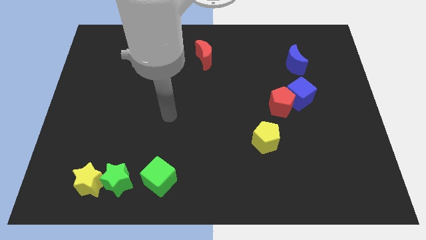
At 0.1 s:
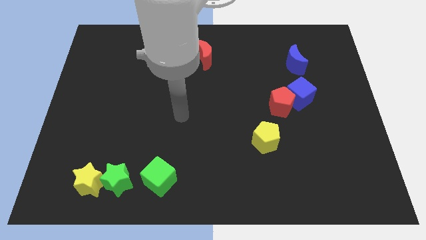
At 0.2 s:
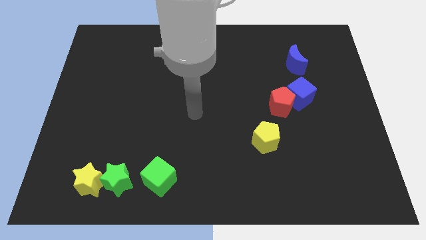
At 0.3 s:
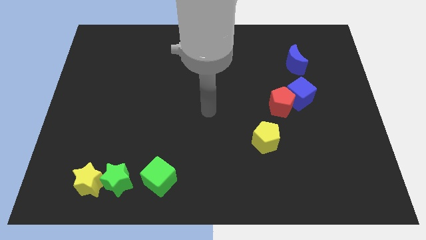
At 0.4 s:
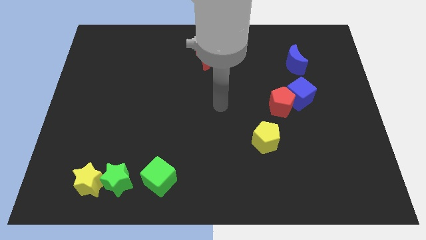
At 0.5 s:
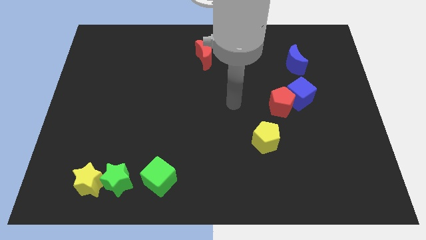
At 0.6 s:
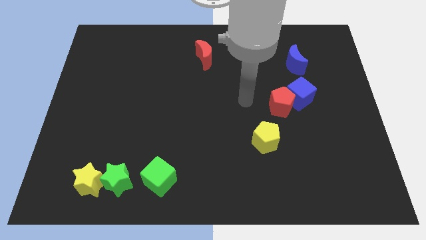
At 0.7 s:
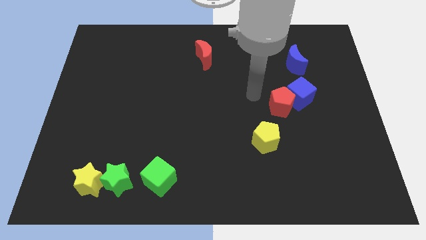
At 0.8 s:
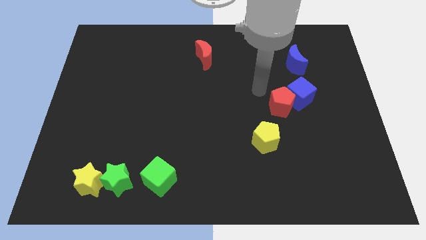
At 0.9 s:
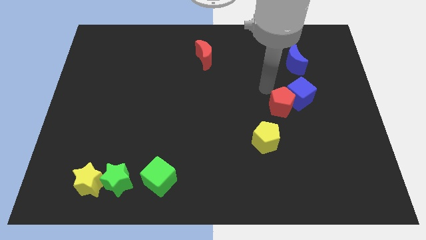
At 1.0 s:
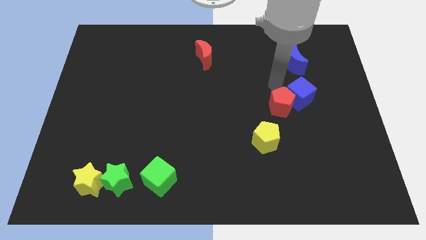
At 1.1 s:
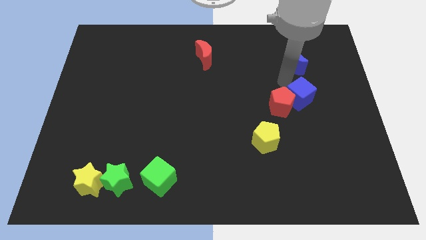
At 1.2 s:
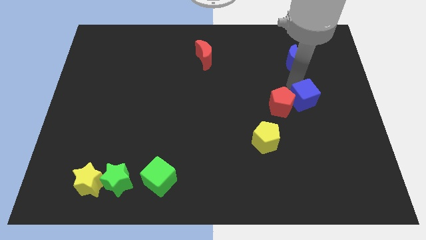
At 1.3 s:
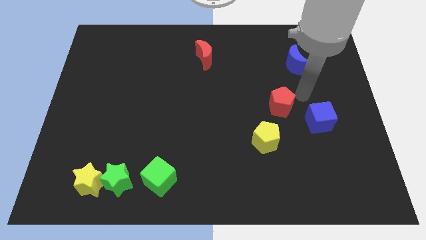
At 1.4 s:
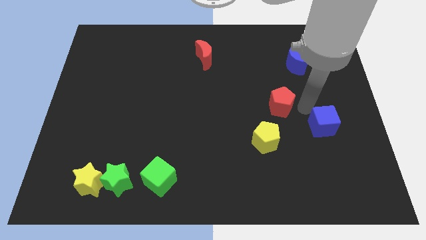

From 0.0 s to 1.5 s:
move the red pentagon away from the blue cube

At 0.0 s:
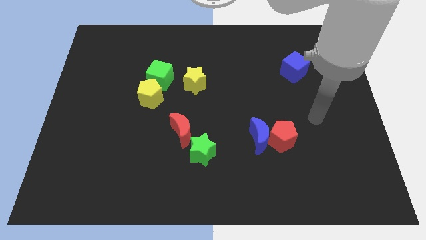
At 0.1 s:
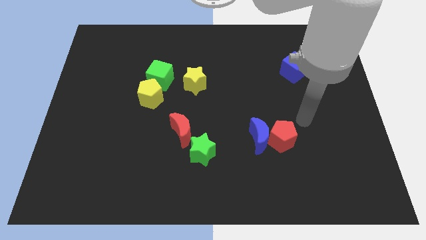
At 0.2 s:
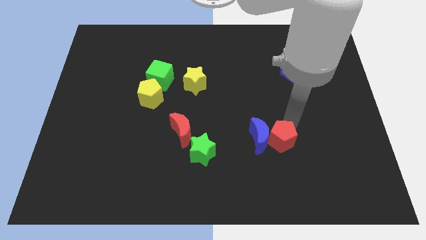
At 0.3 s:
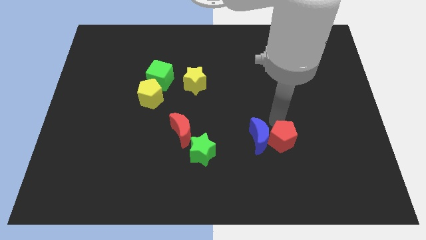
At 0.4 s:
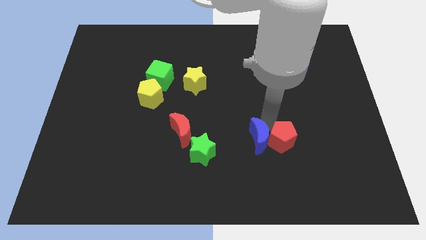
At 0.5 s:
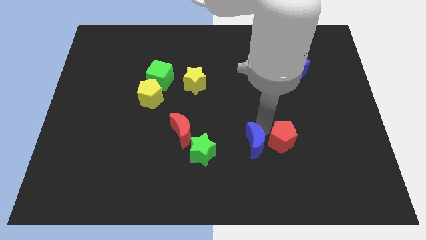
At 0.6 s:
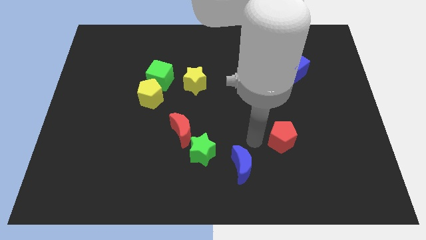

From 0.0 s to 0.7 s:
move the red pentagon away from the blue moon

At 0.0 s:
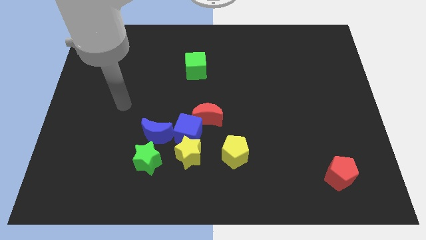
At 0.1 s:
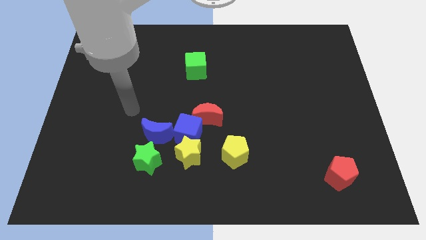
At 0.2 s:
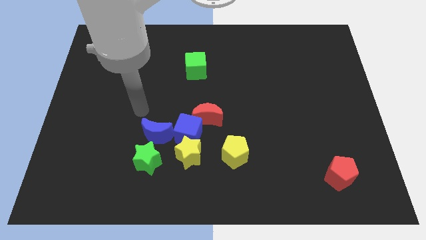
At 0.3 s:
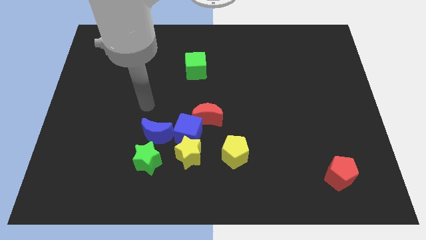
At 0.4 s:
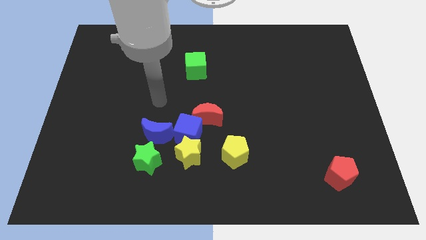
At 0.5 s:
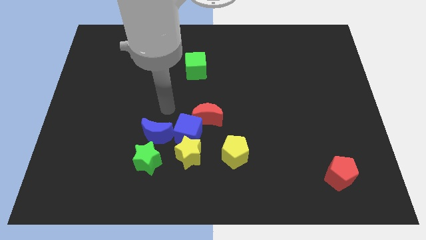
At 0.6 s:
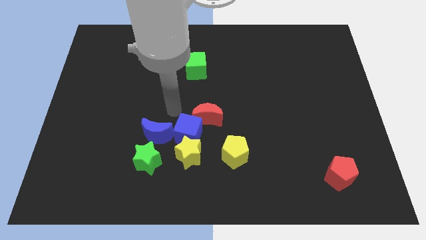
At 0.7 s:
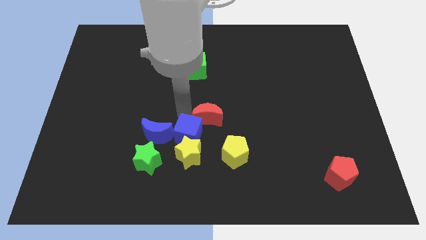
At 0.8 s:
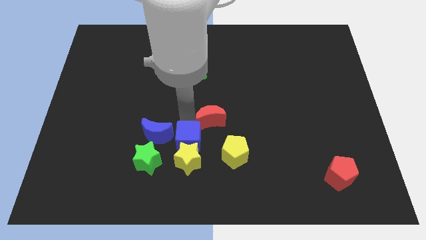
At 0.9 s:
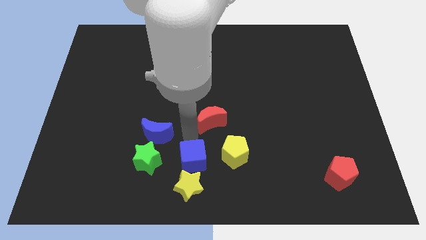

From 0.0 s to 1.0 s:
separate the red moon from the blue cube

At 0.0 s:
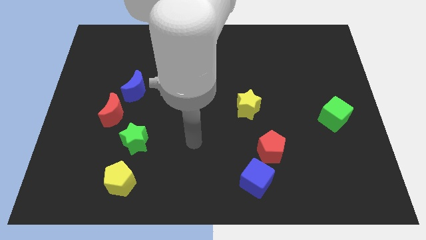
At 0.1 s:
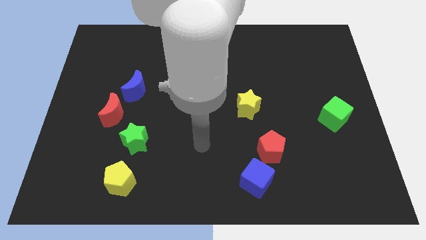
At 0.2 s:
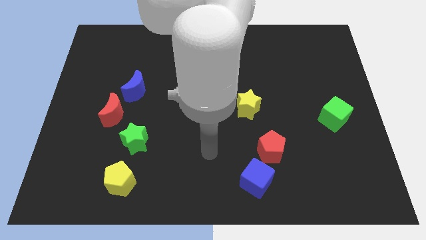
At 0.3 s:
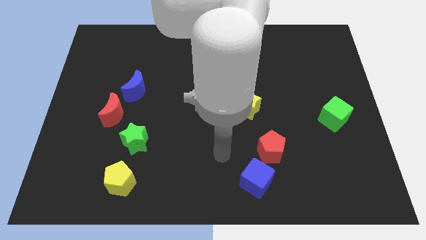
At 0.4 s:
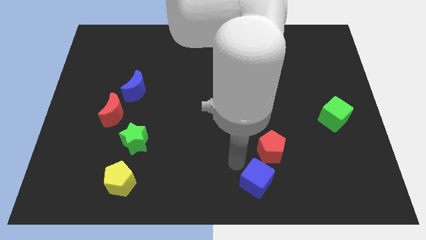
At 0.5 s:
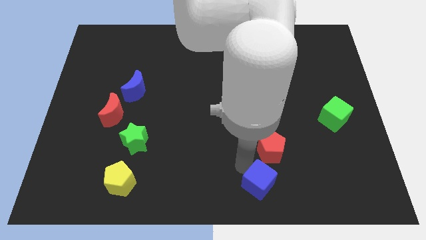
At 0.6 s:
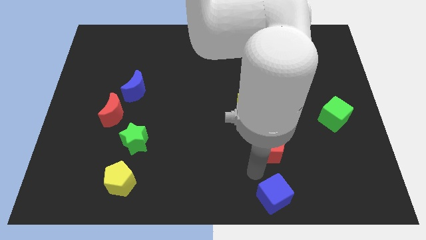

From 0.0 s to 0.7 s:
pull the red pentagon apart from the blue cube

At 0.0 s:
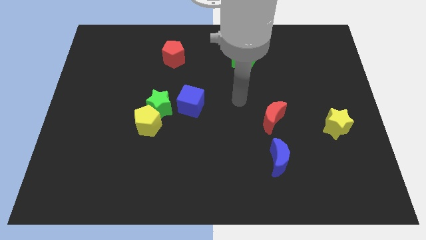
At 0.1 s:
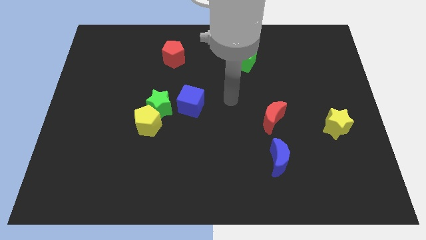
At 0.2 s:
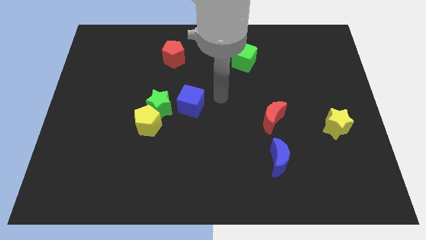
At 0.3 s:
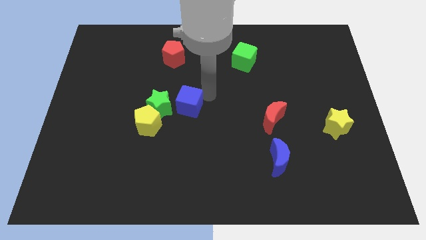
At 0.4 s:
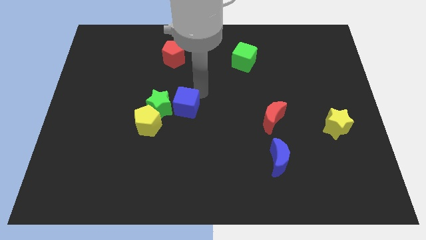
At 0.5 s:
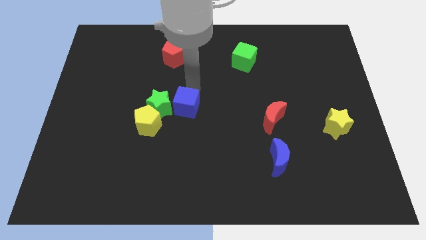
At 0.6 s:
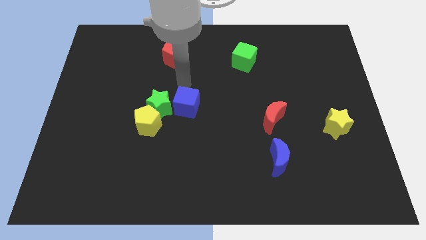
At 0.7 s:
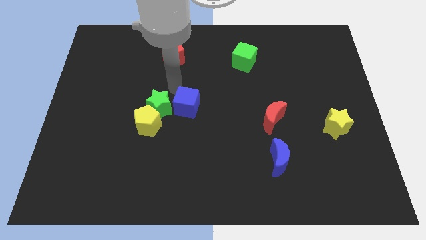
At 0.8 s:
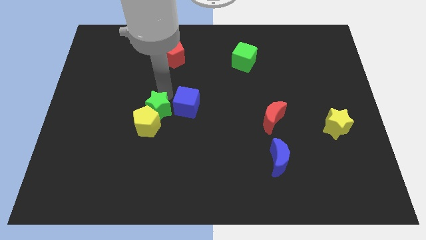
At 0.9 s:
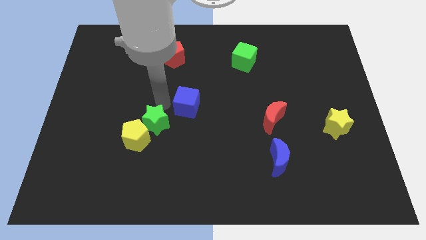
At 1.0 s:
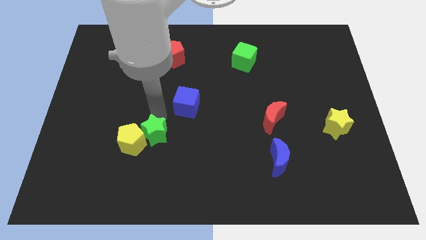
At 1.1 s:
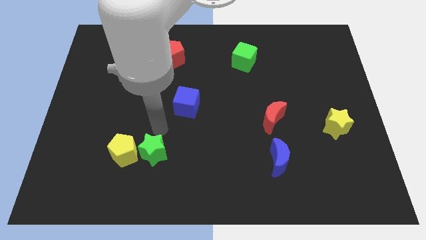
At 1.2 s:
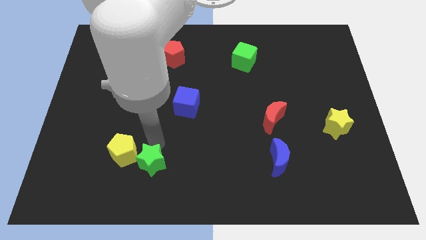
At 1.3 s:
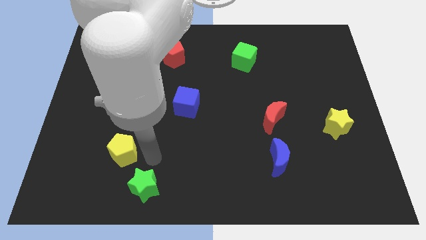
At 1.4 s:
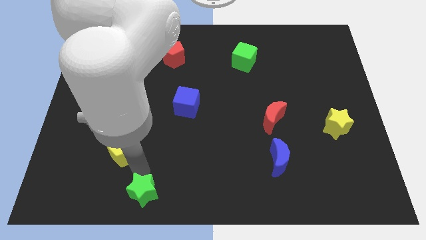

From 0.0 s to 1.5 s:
separate the yellow pentagon from the green star

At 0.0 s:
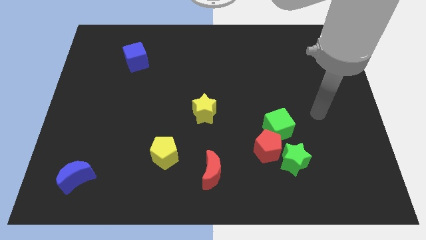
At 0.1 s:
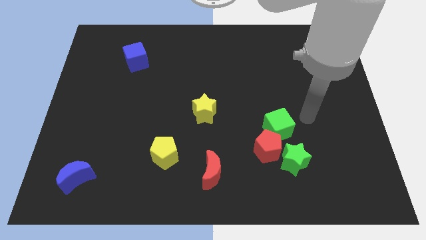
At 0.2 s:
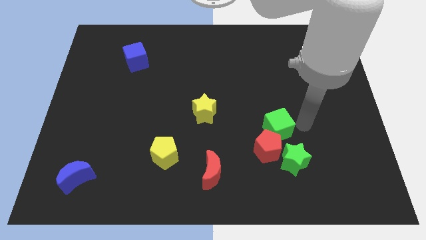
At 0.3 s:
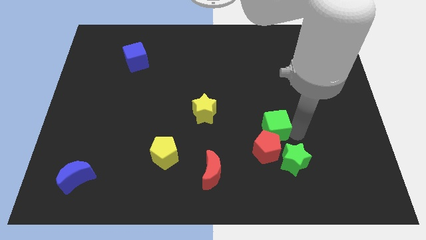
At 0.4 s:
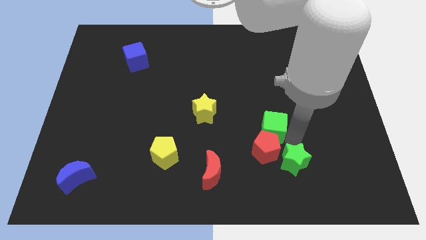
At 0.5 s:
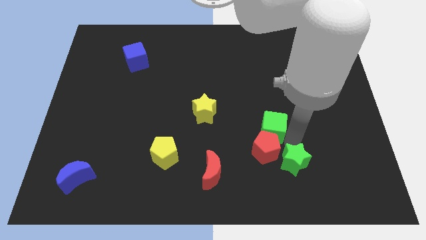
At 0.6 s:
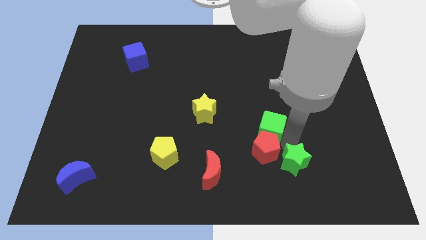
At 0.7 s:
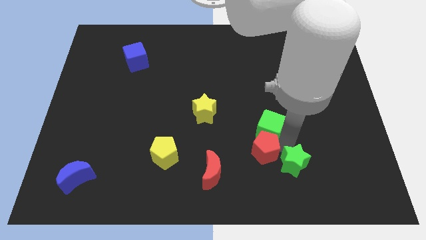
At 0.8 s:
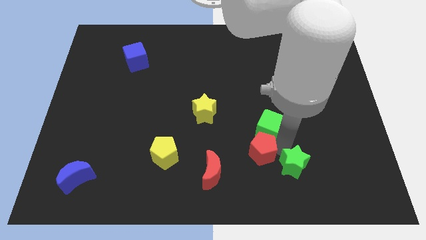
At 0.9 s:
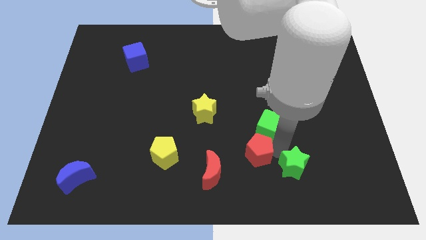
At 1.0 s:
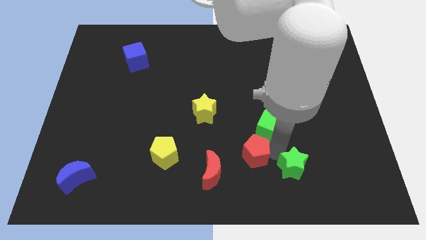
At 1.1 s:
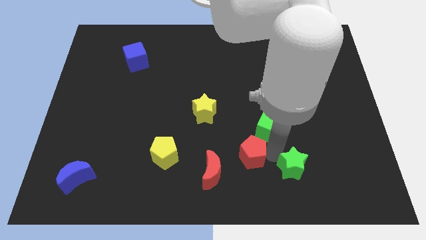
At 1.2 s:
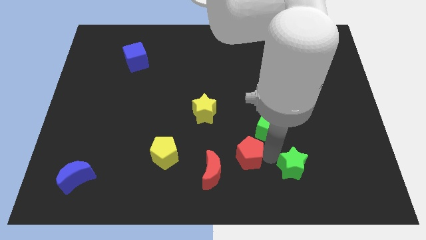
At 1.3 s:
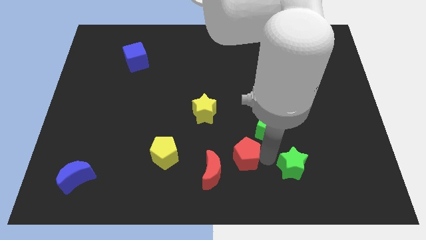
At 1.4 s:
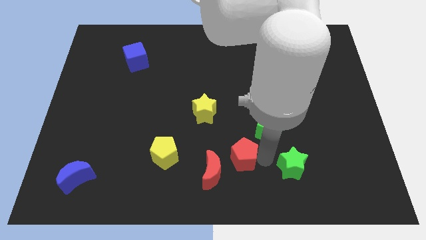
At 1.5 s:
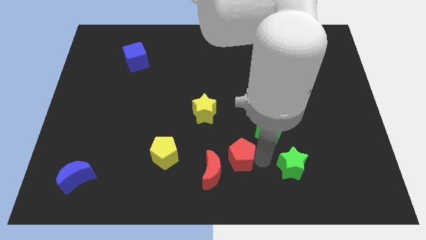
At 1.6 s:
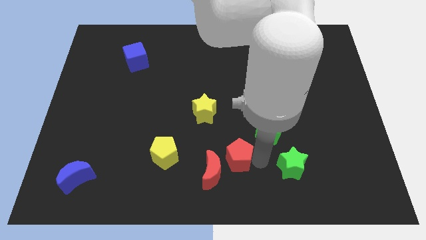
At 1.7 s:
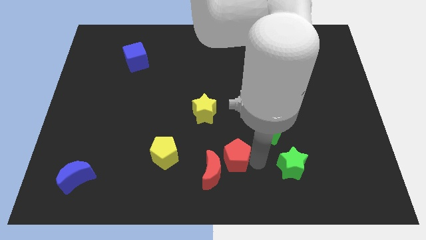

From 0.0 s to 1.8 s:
move the red pentagon away from the green star and green cube

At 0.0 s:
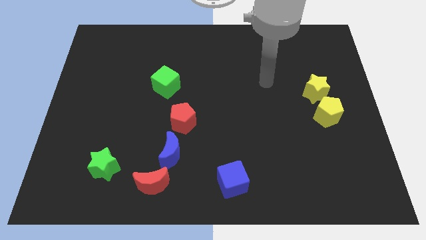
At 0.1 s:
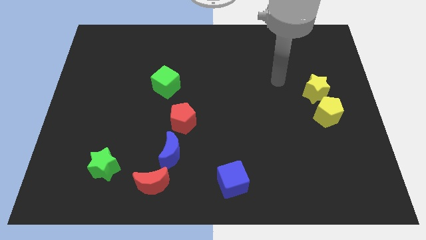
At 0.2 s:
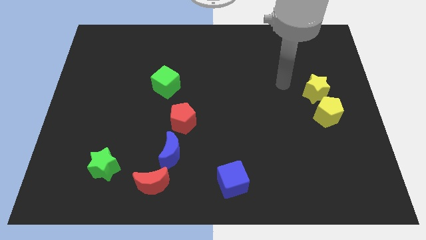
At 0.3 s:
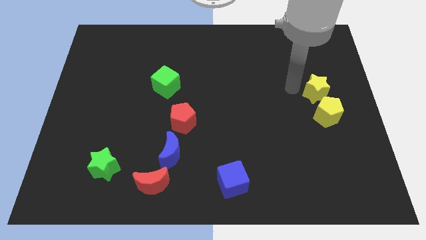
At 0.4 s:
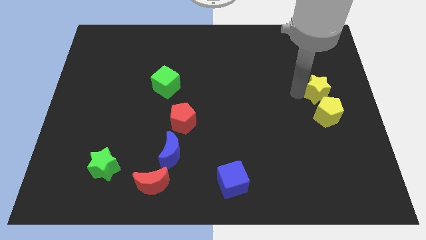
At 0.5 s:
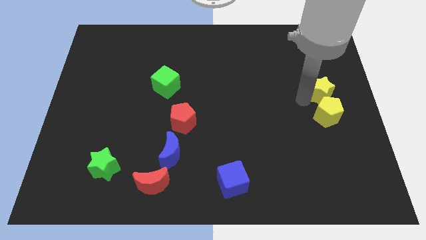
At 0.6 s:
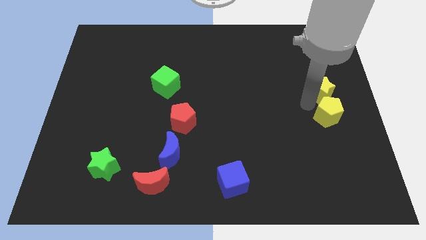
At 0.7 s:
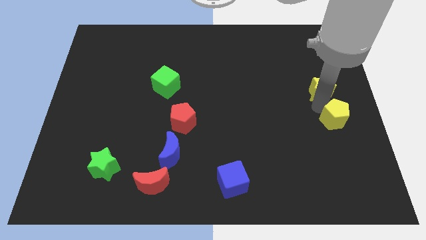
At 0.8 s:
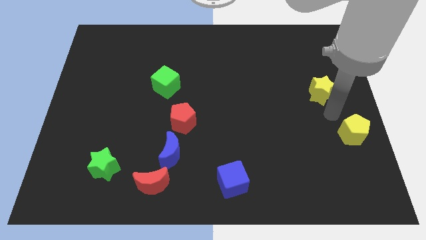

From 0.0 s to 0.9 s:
separate the yellow star from the yellow pentagon

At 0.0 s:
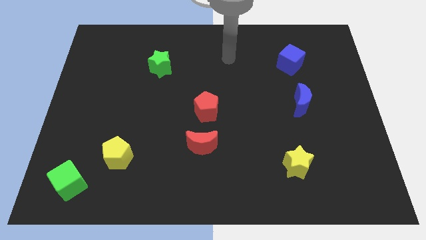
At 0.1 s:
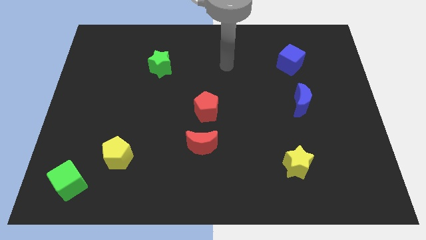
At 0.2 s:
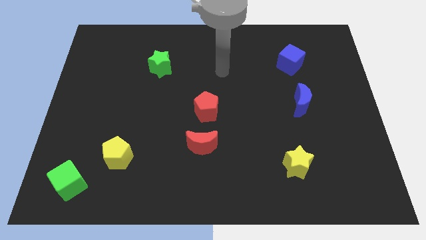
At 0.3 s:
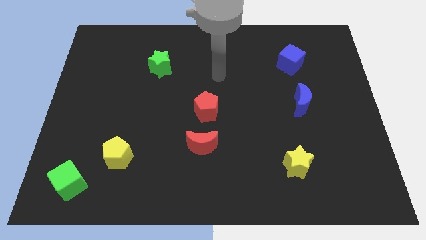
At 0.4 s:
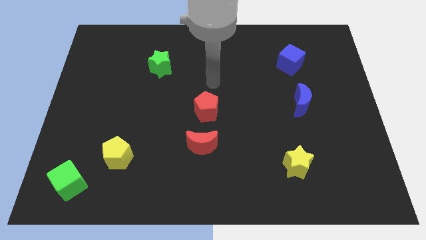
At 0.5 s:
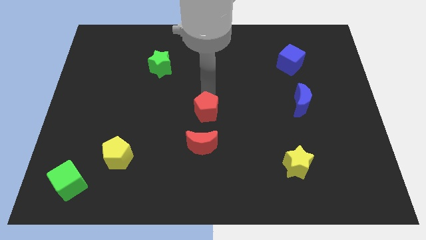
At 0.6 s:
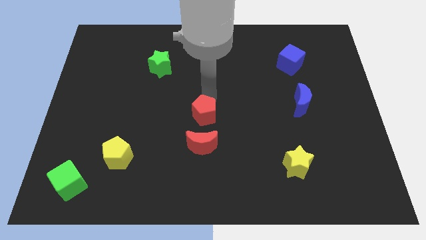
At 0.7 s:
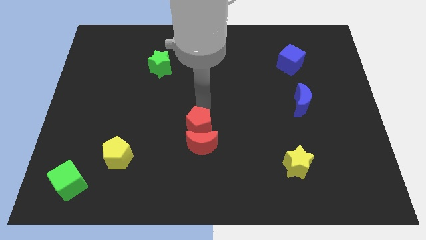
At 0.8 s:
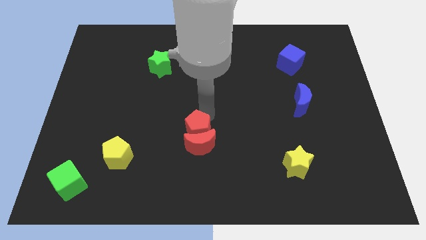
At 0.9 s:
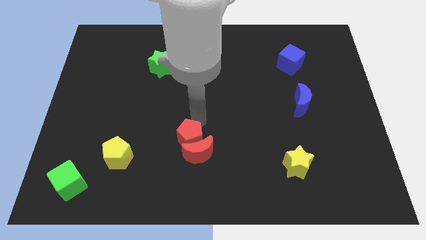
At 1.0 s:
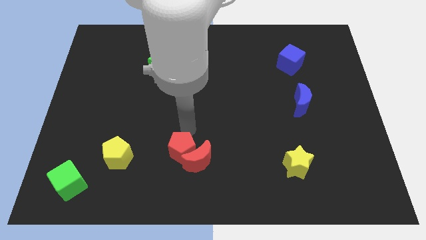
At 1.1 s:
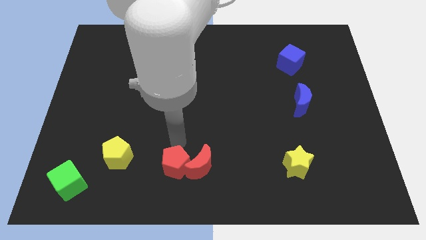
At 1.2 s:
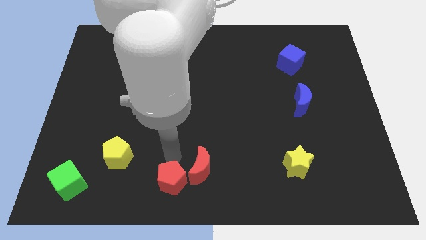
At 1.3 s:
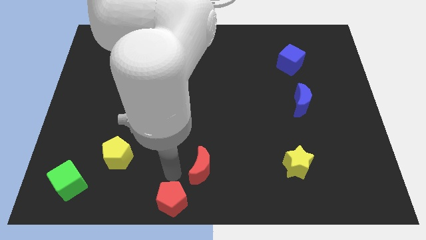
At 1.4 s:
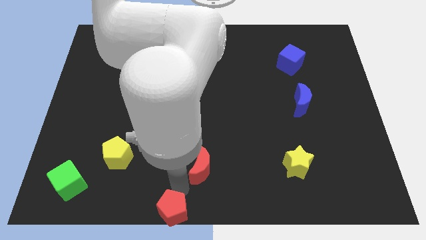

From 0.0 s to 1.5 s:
move the red moon away from the red pentagon
